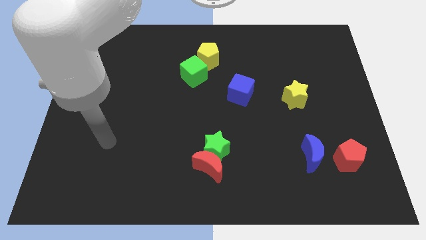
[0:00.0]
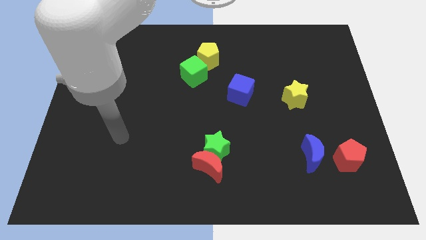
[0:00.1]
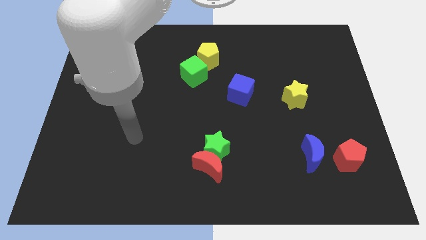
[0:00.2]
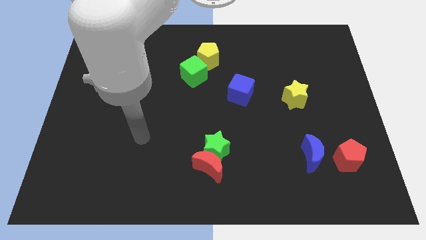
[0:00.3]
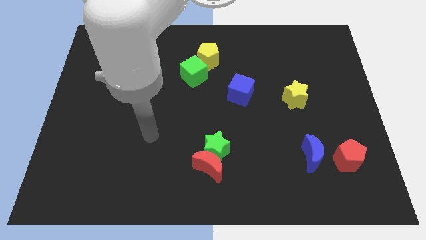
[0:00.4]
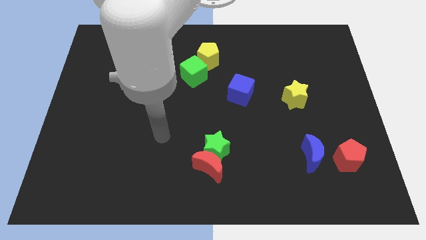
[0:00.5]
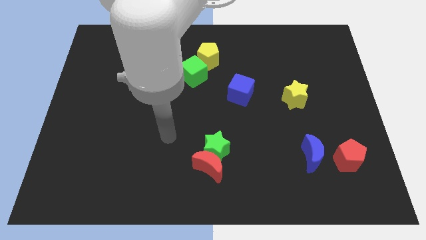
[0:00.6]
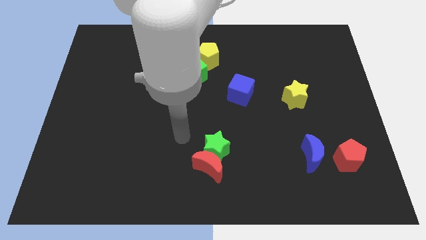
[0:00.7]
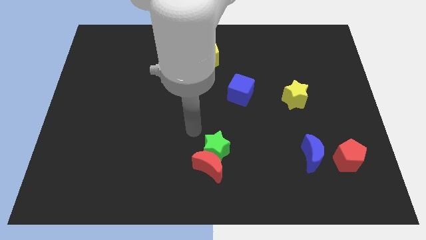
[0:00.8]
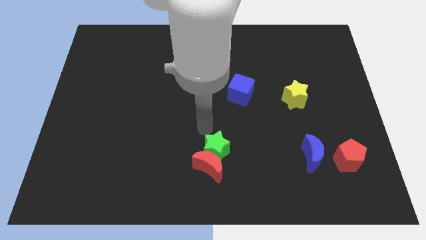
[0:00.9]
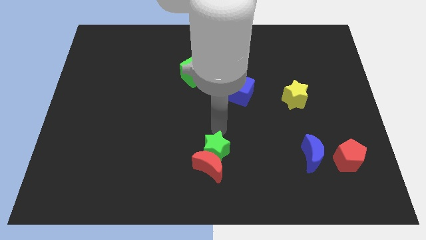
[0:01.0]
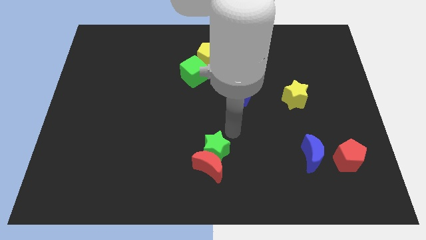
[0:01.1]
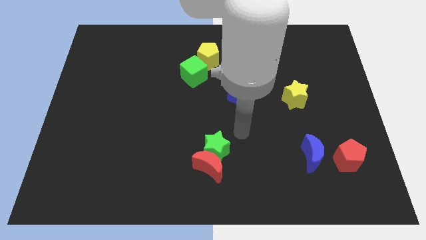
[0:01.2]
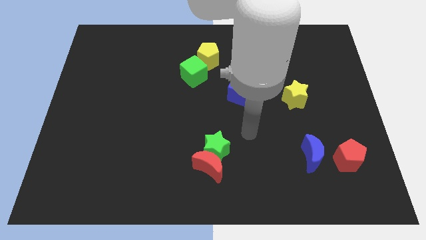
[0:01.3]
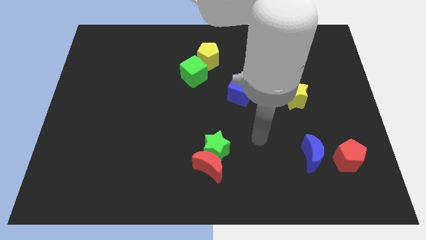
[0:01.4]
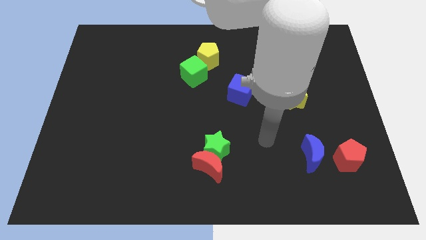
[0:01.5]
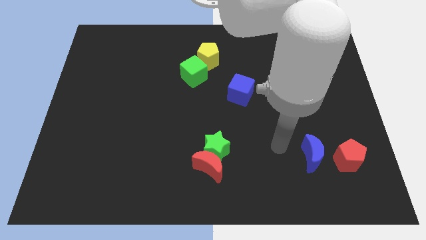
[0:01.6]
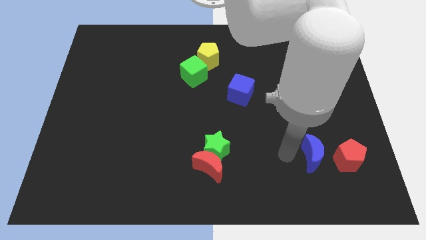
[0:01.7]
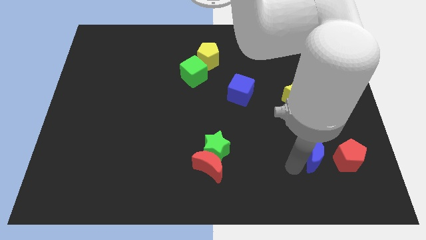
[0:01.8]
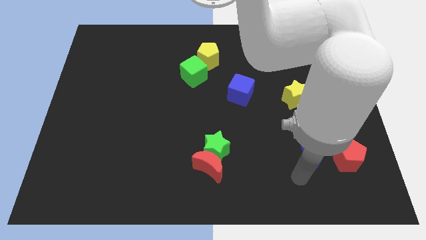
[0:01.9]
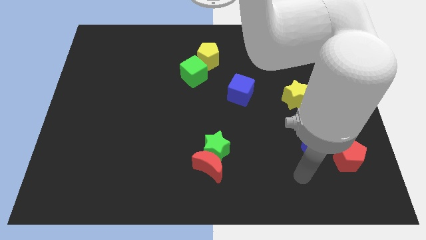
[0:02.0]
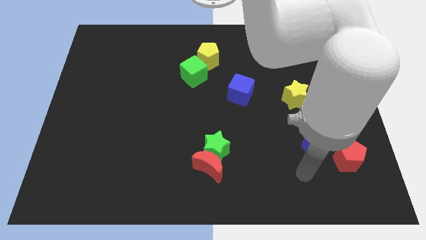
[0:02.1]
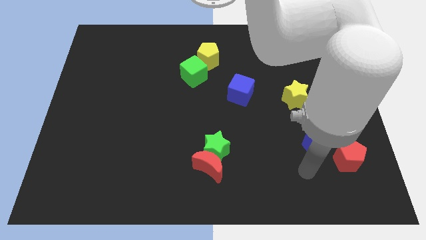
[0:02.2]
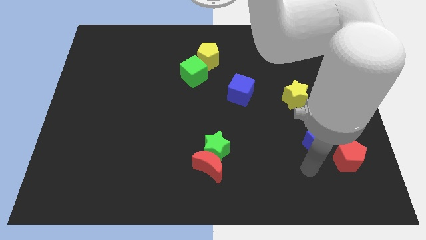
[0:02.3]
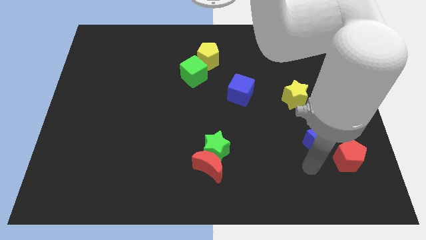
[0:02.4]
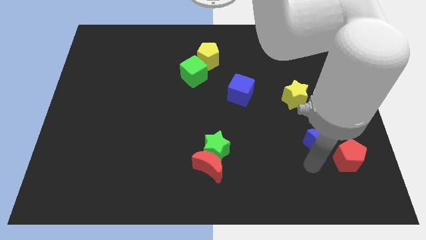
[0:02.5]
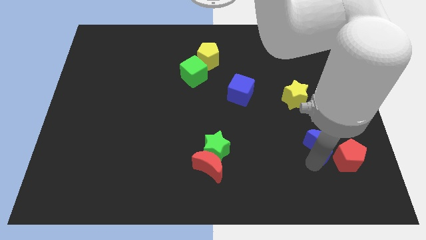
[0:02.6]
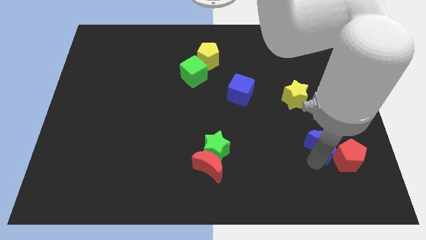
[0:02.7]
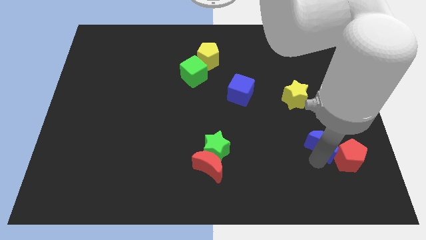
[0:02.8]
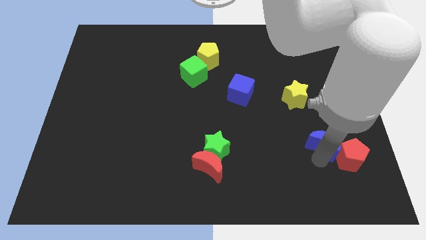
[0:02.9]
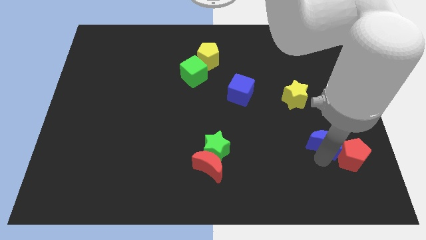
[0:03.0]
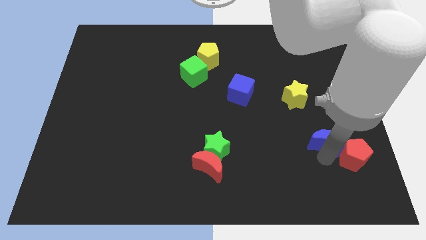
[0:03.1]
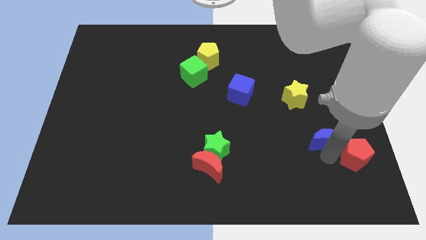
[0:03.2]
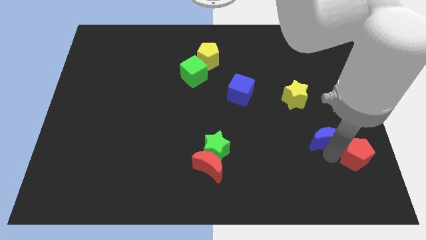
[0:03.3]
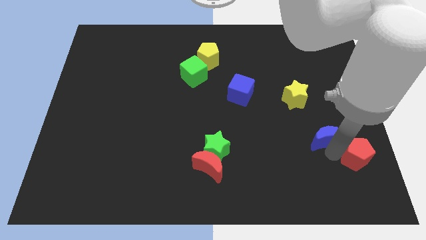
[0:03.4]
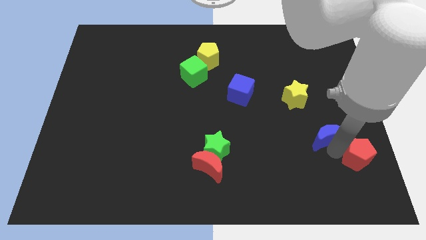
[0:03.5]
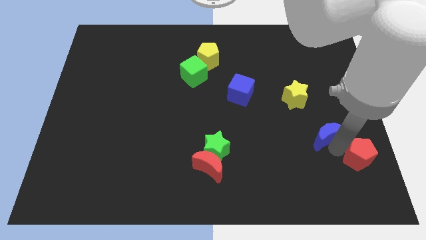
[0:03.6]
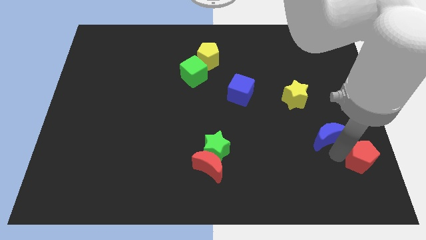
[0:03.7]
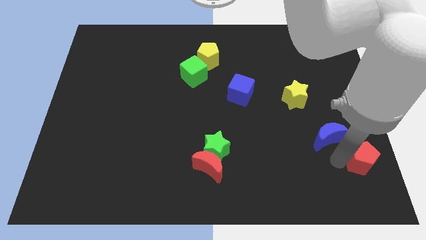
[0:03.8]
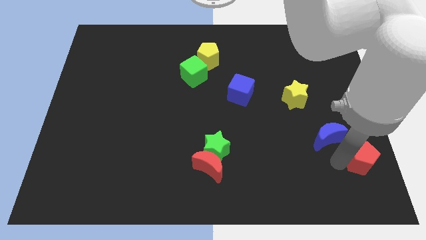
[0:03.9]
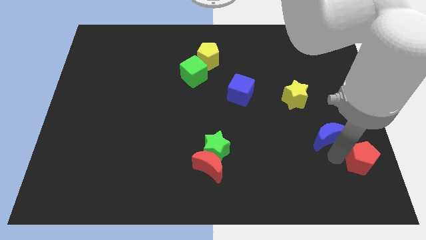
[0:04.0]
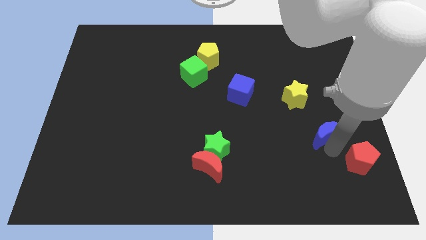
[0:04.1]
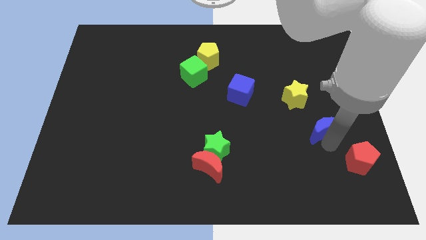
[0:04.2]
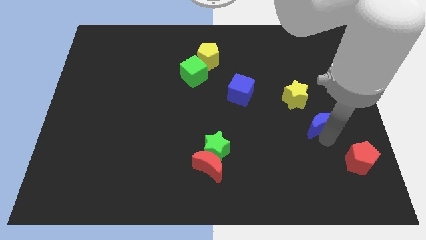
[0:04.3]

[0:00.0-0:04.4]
slide the blue moon up a little

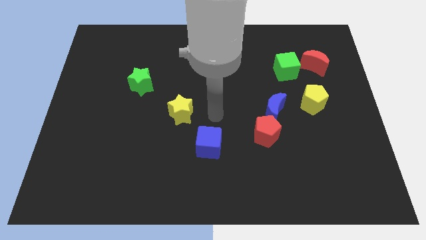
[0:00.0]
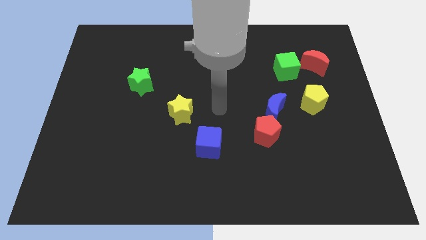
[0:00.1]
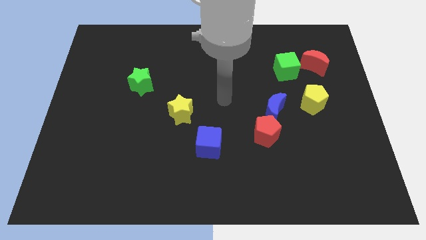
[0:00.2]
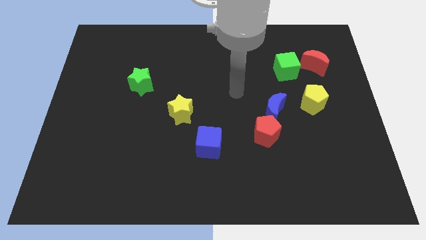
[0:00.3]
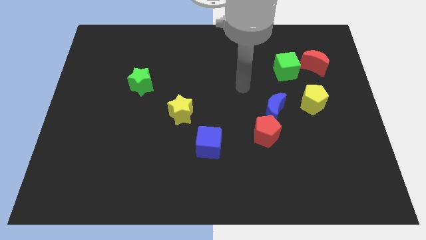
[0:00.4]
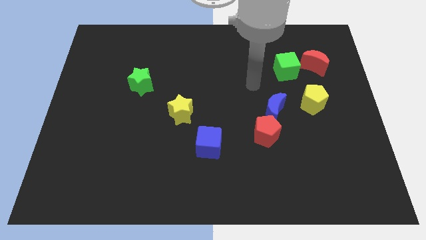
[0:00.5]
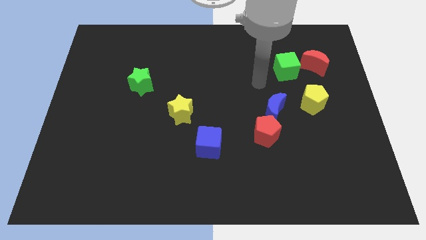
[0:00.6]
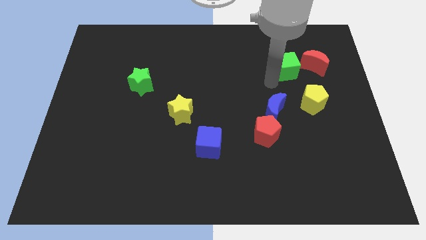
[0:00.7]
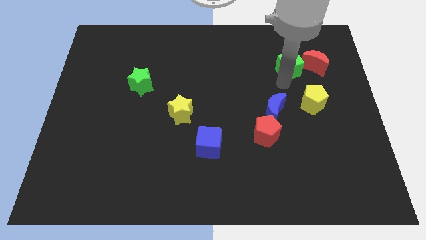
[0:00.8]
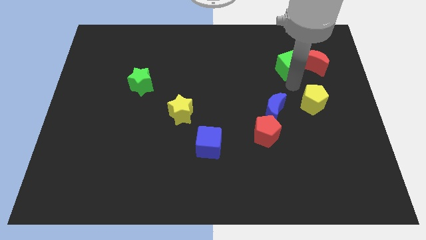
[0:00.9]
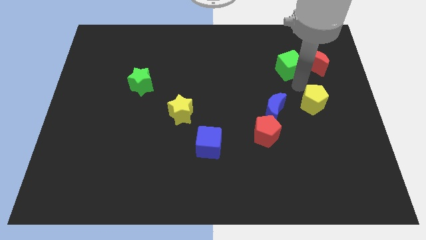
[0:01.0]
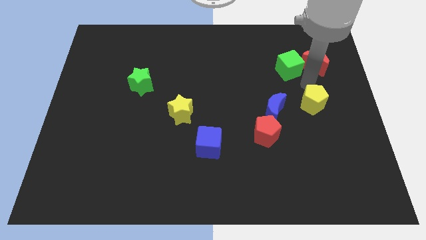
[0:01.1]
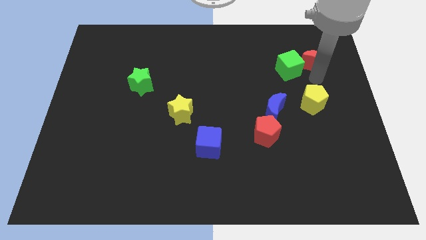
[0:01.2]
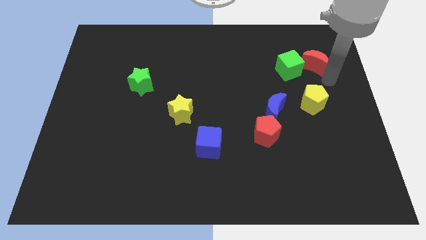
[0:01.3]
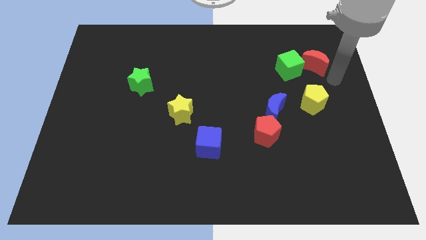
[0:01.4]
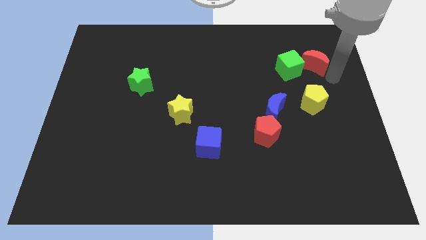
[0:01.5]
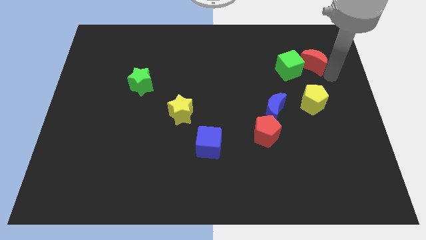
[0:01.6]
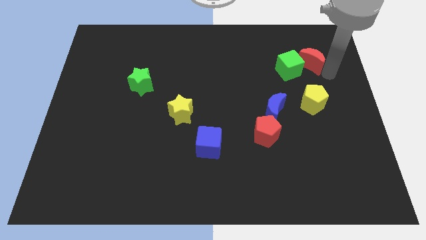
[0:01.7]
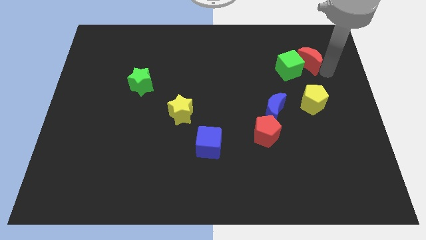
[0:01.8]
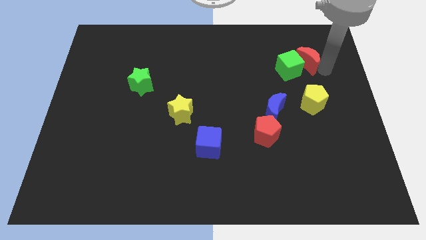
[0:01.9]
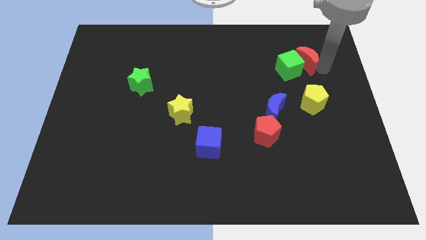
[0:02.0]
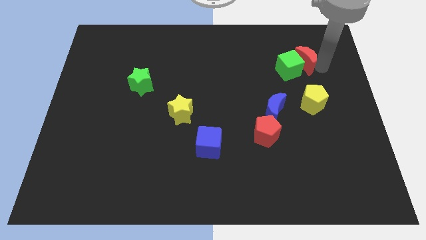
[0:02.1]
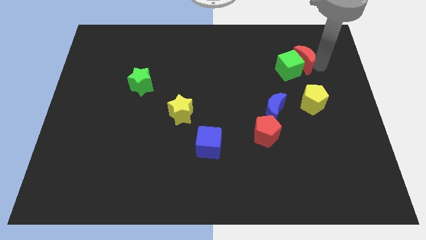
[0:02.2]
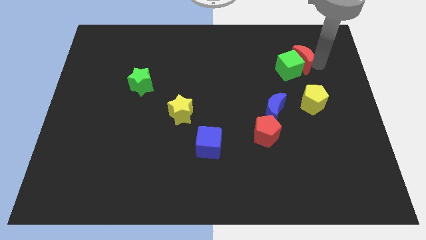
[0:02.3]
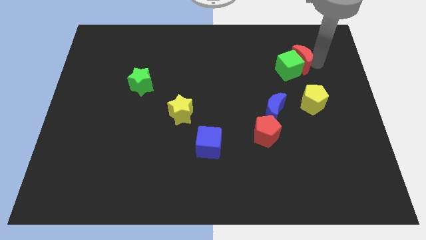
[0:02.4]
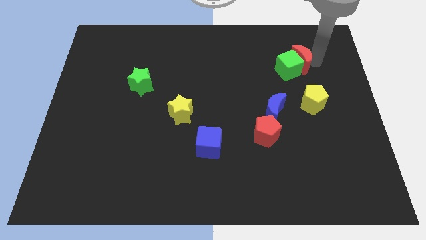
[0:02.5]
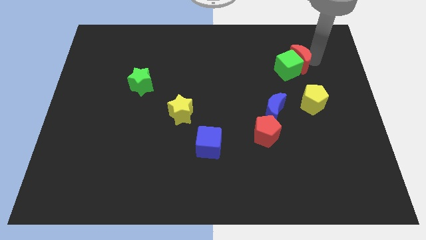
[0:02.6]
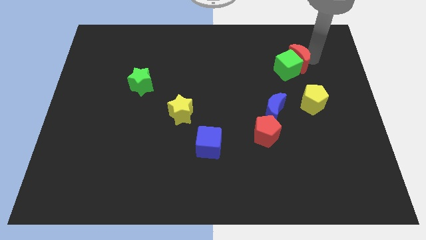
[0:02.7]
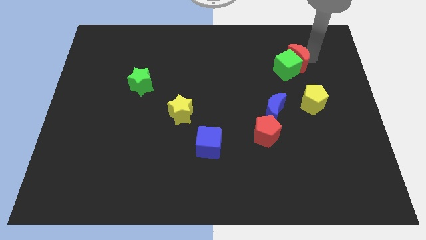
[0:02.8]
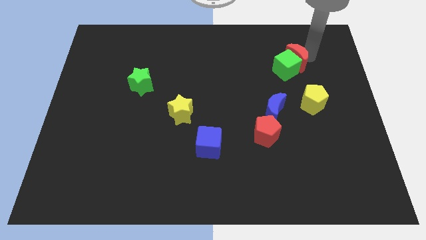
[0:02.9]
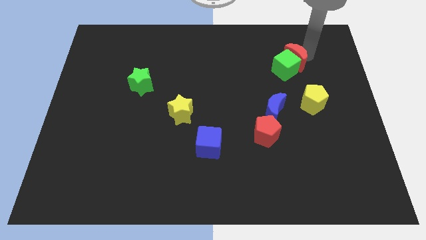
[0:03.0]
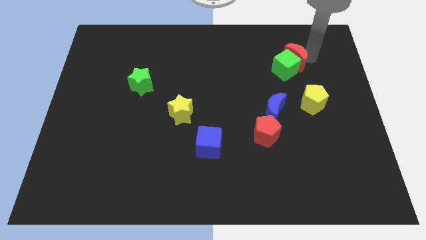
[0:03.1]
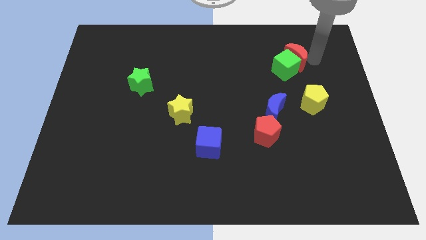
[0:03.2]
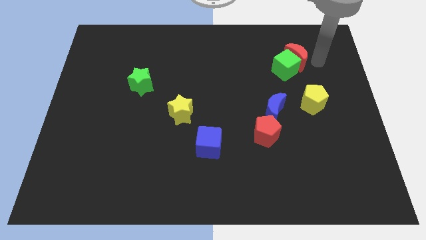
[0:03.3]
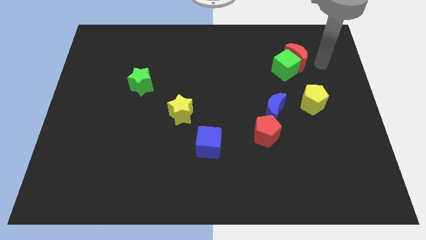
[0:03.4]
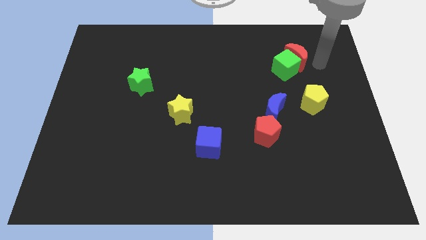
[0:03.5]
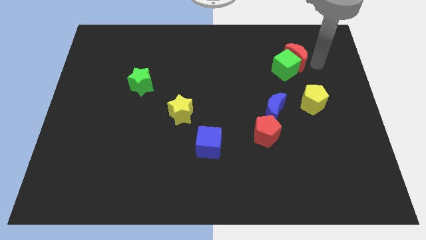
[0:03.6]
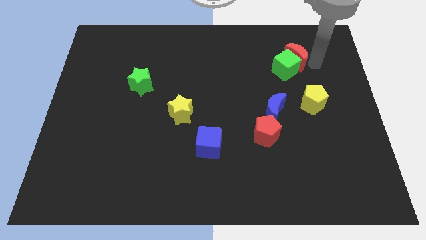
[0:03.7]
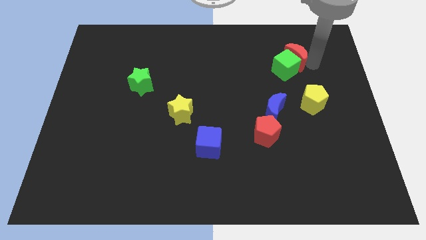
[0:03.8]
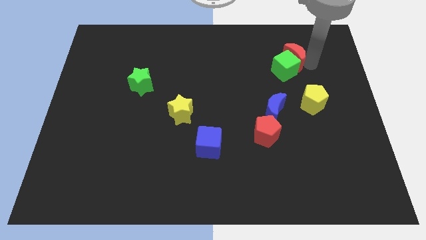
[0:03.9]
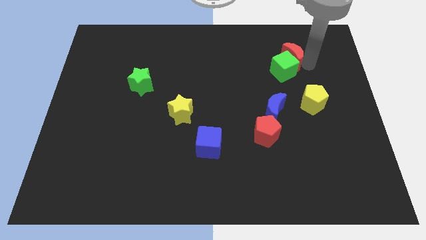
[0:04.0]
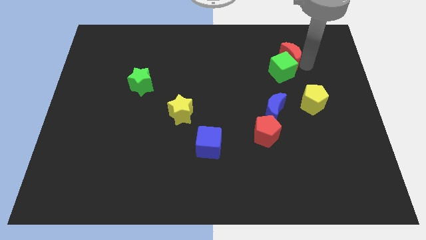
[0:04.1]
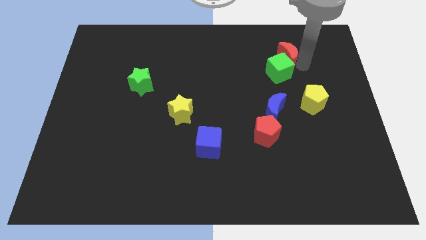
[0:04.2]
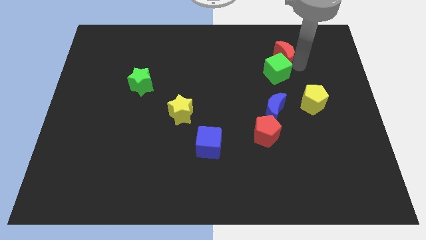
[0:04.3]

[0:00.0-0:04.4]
move the red moon left a bit
